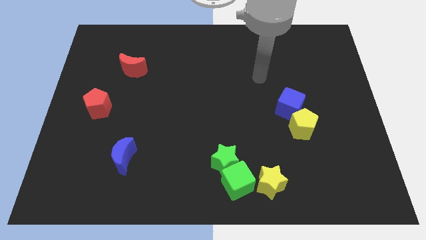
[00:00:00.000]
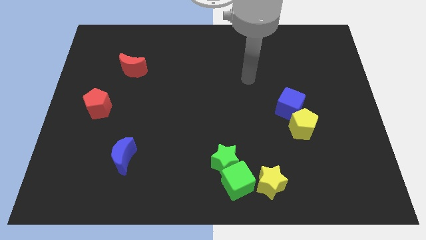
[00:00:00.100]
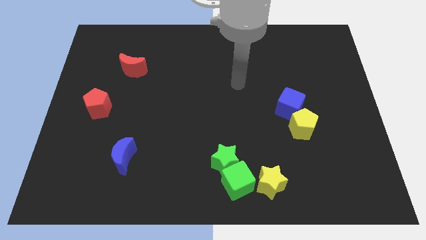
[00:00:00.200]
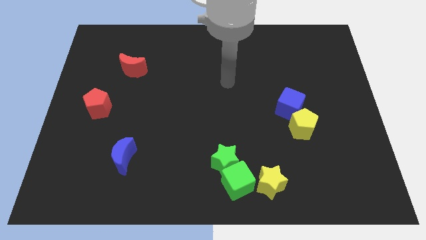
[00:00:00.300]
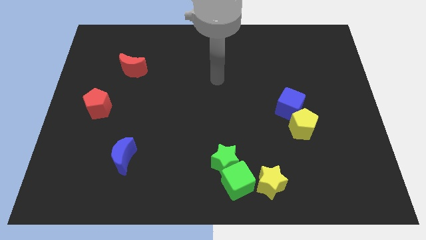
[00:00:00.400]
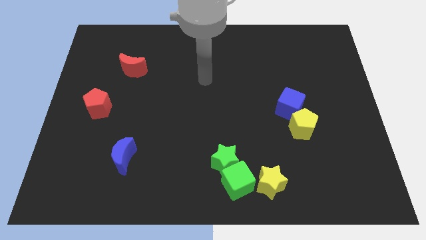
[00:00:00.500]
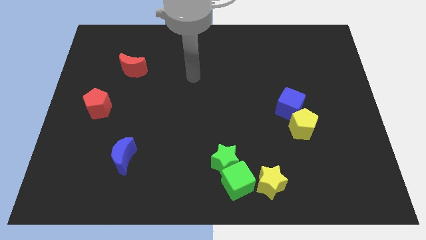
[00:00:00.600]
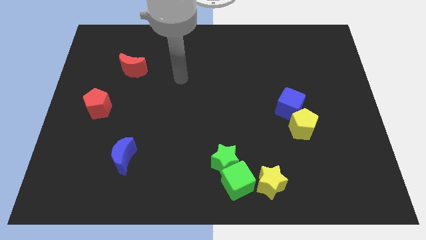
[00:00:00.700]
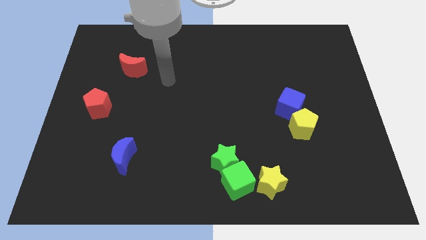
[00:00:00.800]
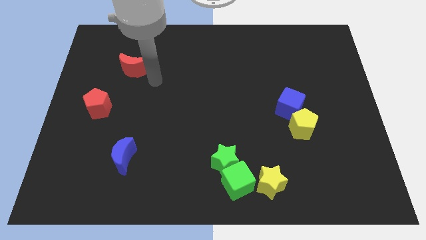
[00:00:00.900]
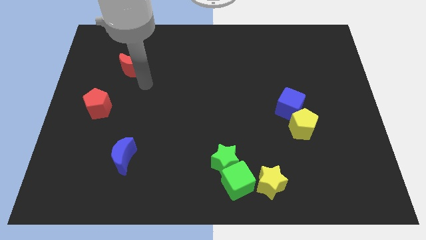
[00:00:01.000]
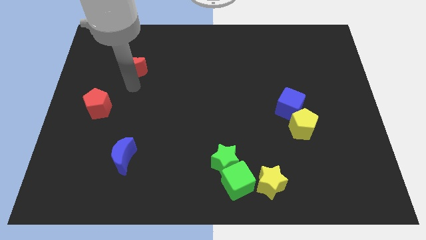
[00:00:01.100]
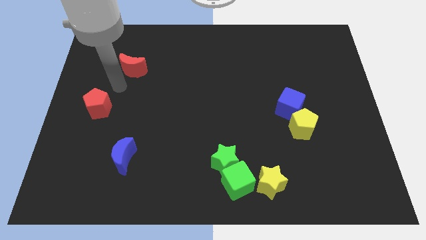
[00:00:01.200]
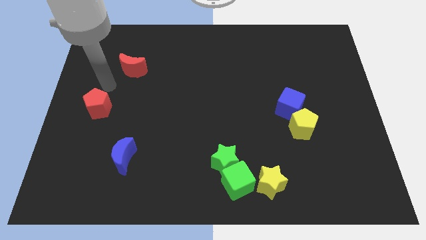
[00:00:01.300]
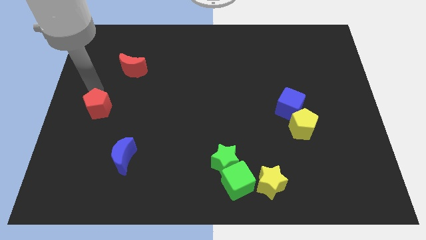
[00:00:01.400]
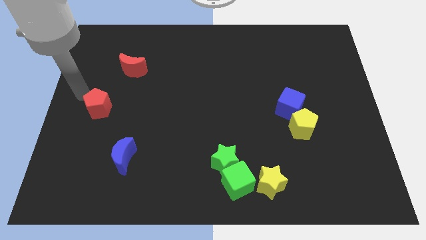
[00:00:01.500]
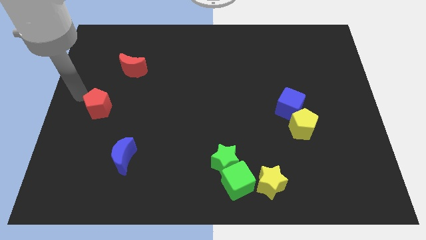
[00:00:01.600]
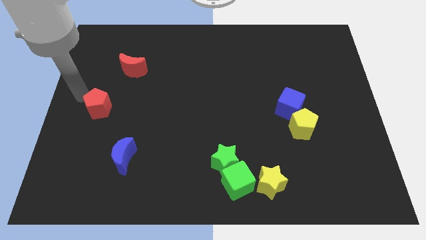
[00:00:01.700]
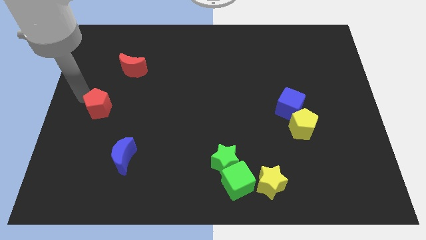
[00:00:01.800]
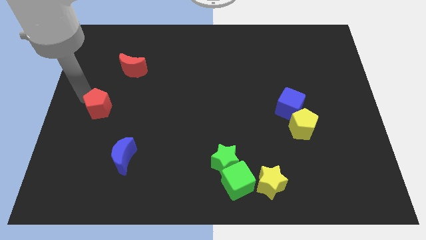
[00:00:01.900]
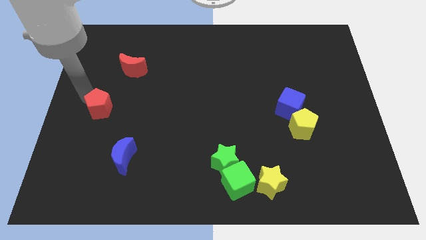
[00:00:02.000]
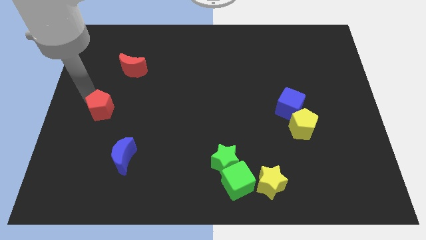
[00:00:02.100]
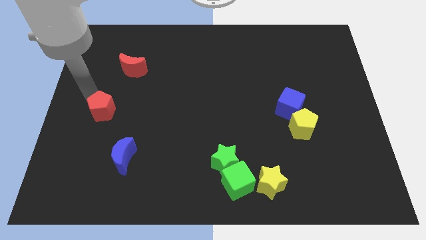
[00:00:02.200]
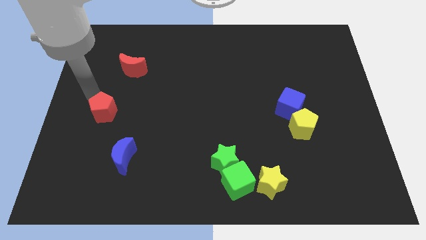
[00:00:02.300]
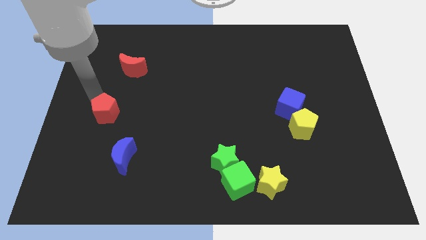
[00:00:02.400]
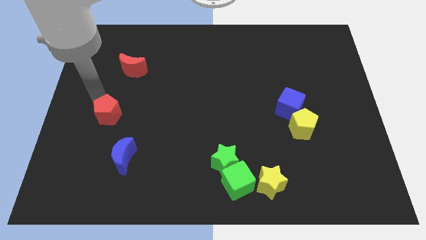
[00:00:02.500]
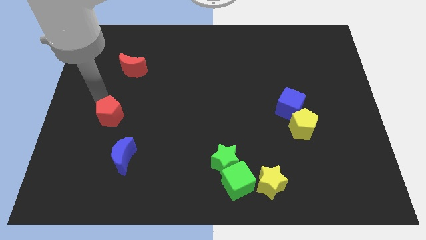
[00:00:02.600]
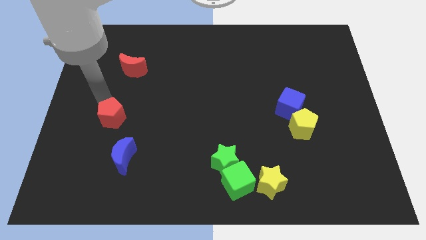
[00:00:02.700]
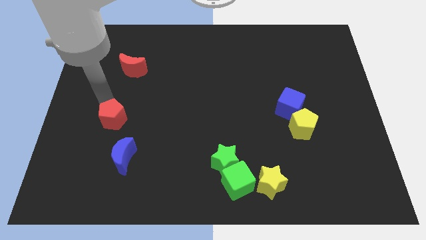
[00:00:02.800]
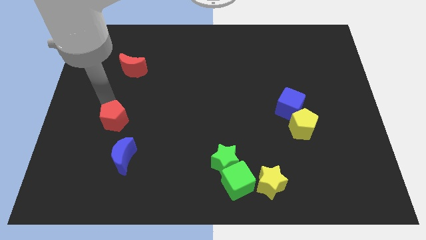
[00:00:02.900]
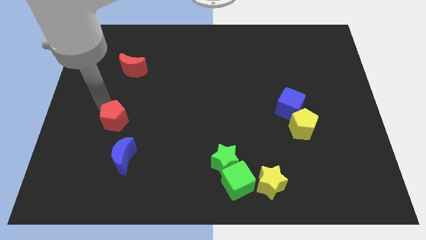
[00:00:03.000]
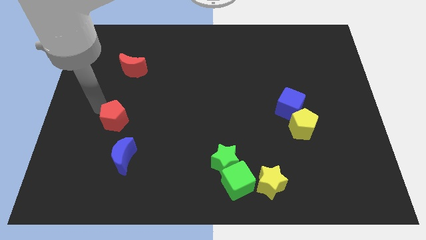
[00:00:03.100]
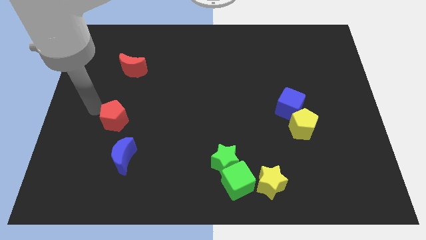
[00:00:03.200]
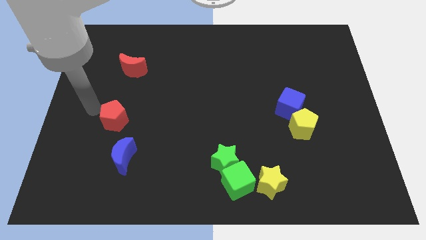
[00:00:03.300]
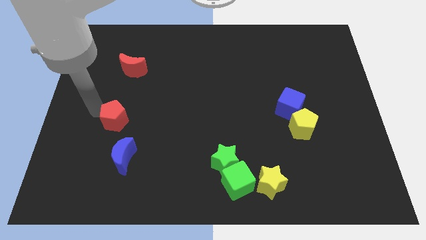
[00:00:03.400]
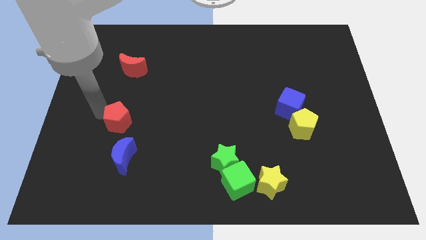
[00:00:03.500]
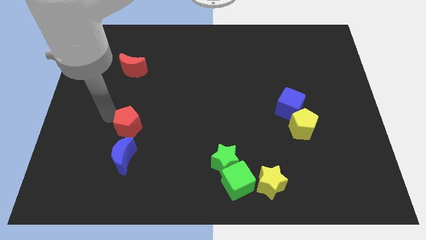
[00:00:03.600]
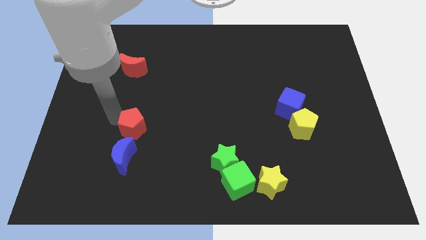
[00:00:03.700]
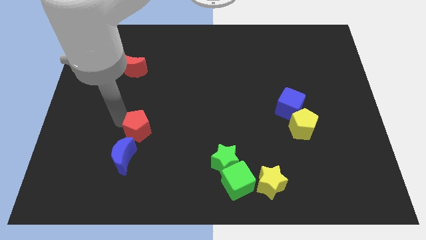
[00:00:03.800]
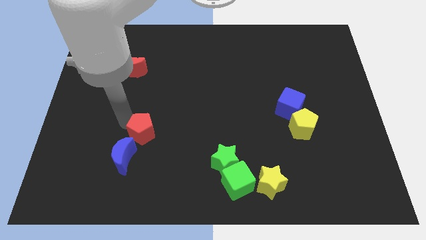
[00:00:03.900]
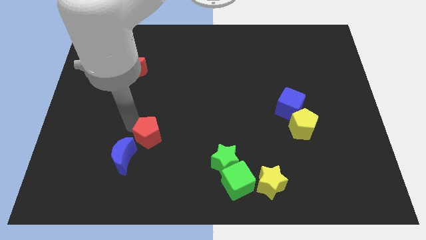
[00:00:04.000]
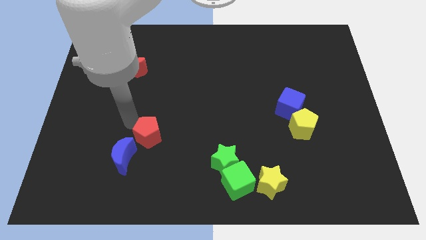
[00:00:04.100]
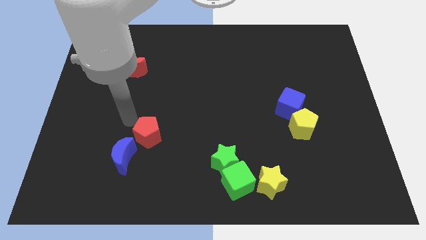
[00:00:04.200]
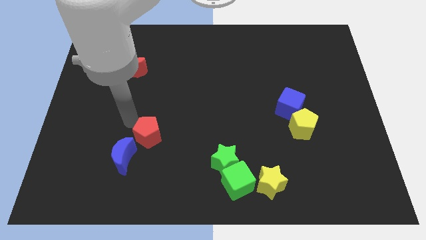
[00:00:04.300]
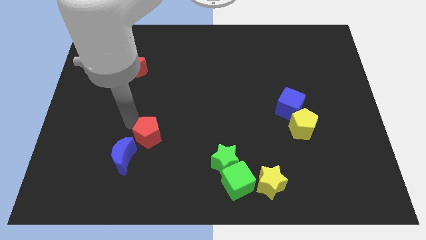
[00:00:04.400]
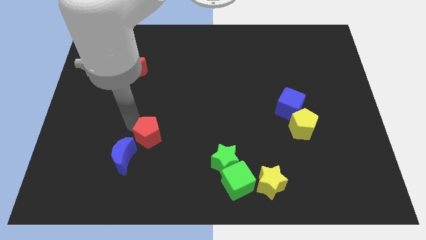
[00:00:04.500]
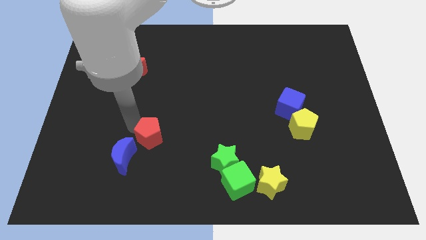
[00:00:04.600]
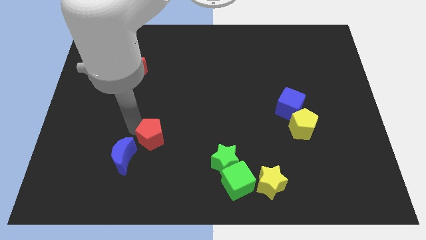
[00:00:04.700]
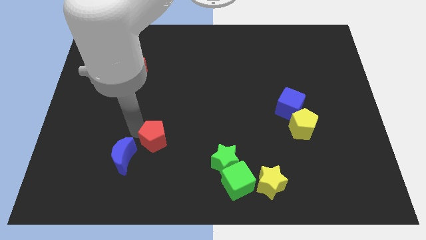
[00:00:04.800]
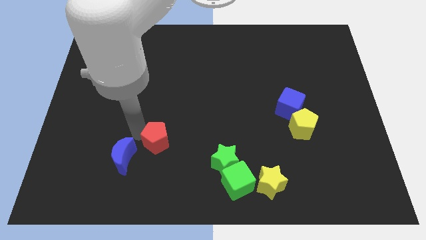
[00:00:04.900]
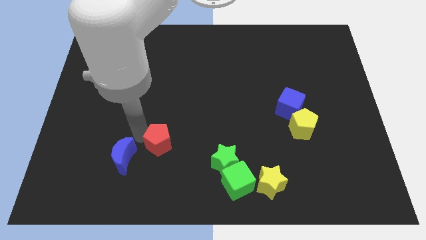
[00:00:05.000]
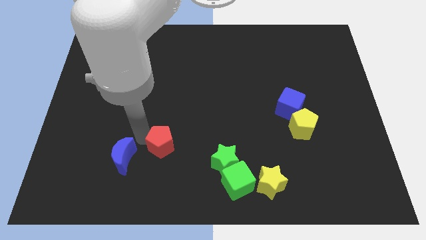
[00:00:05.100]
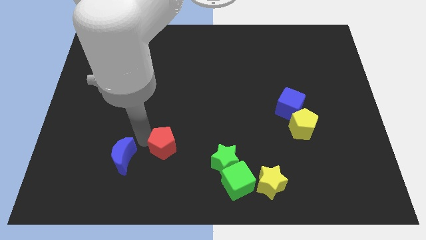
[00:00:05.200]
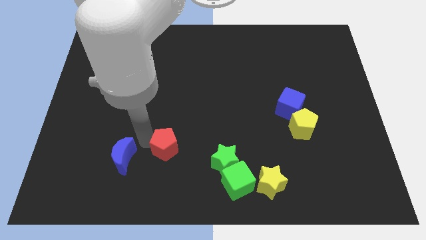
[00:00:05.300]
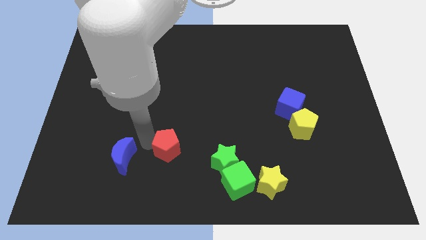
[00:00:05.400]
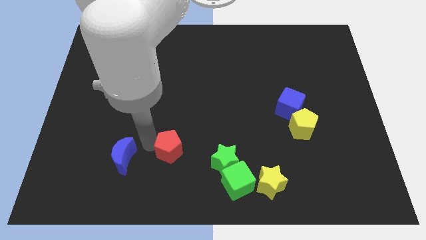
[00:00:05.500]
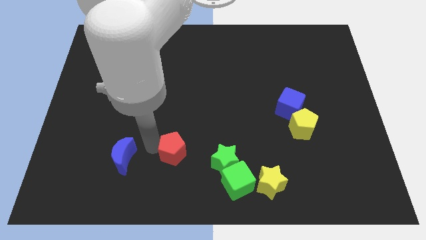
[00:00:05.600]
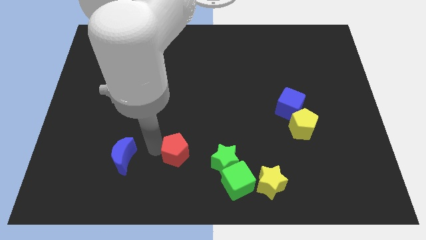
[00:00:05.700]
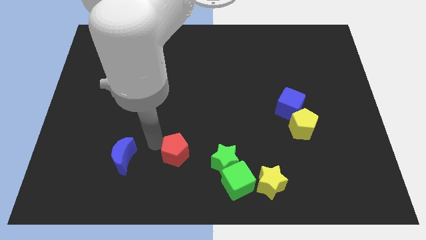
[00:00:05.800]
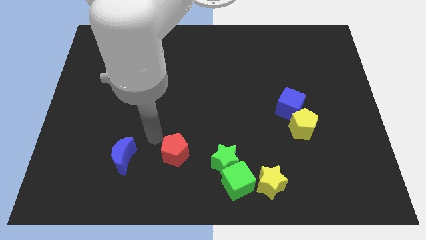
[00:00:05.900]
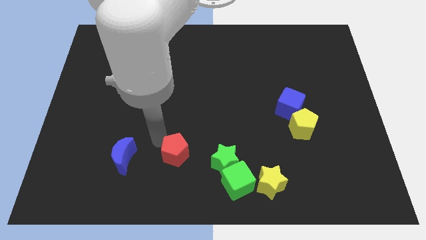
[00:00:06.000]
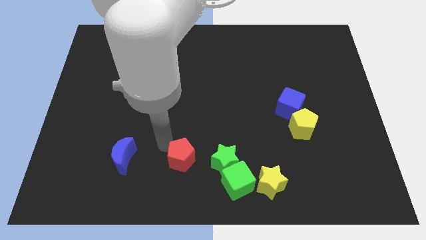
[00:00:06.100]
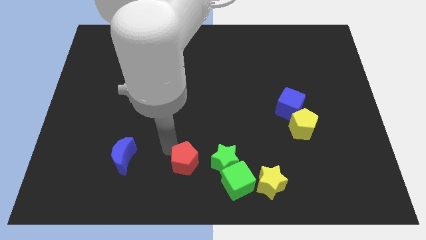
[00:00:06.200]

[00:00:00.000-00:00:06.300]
move the red pentagon to the bottom
